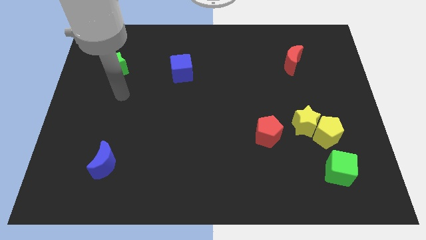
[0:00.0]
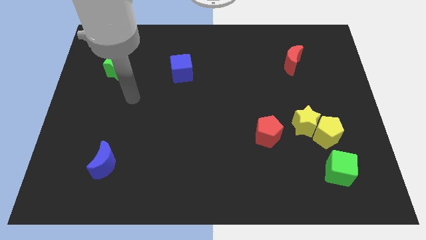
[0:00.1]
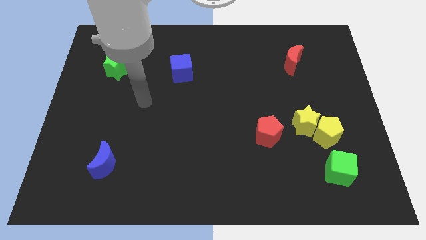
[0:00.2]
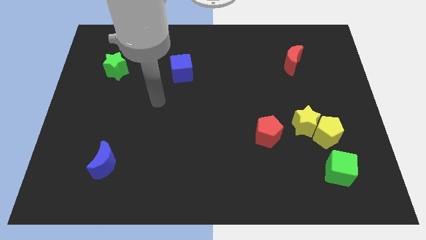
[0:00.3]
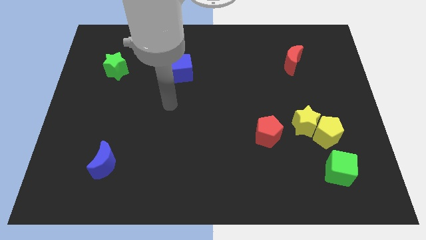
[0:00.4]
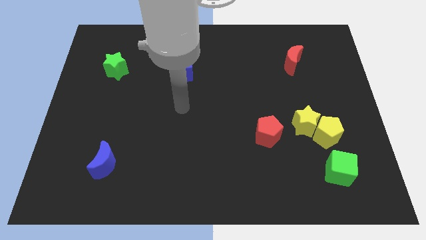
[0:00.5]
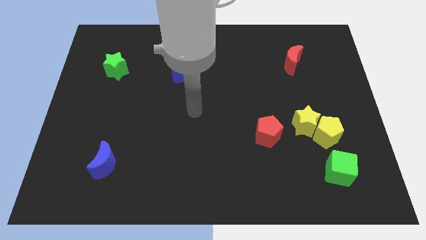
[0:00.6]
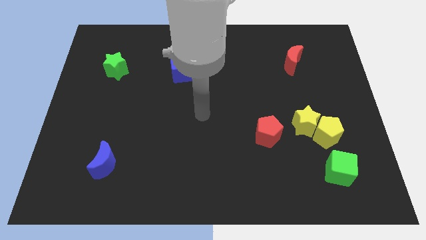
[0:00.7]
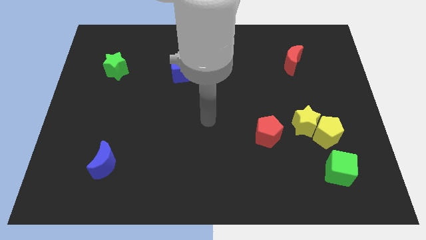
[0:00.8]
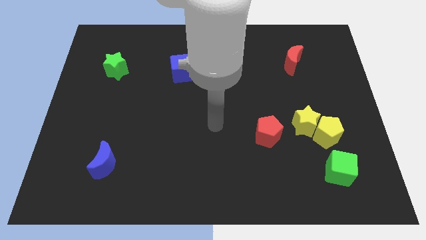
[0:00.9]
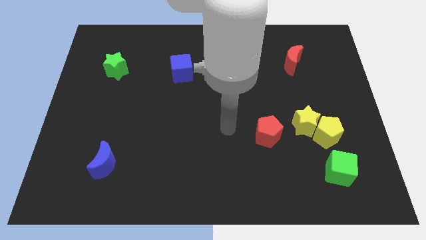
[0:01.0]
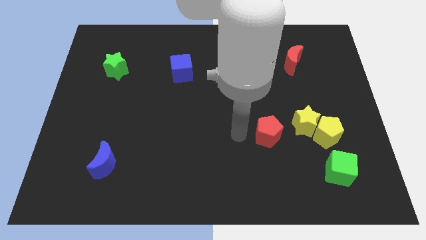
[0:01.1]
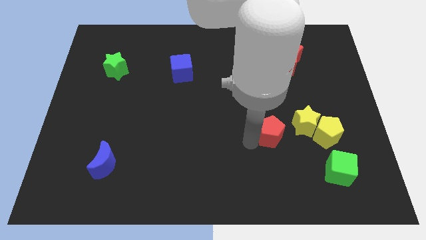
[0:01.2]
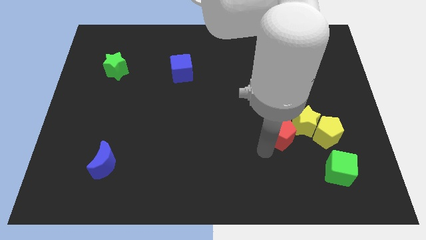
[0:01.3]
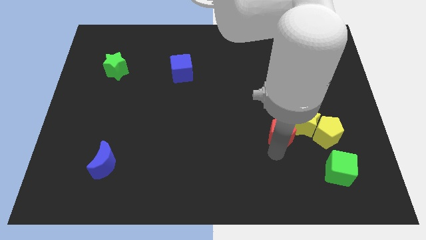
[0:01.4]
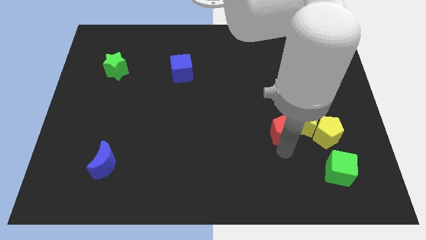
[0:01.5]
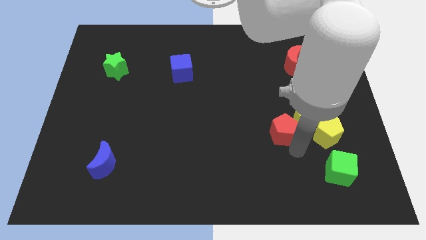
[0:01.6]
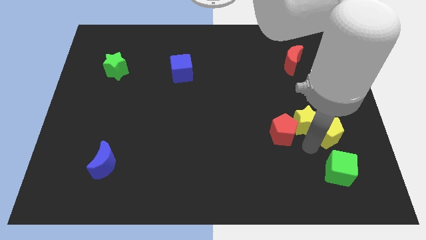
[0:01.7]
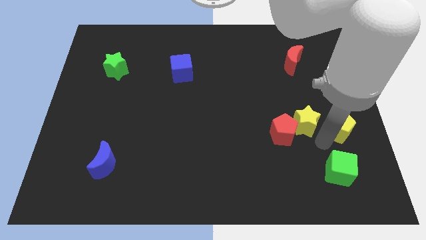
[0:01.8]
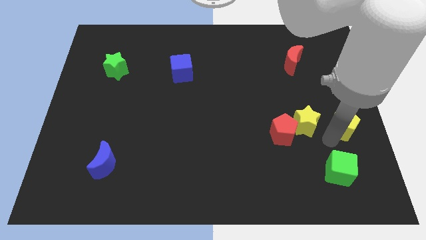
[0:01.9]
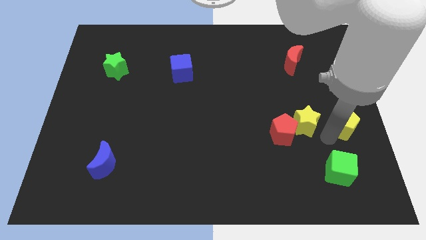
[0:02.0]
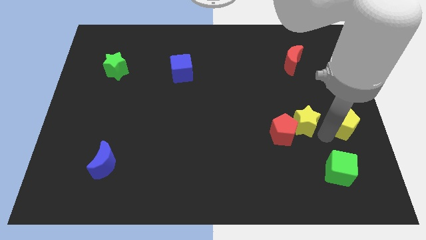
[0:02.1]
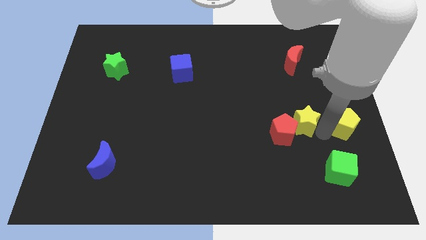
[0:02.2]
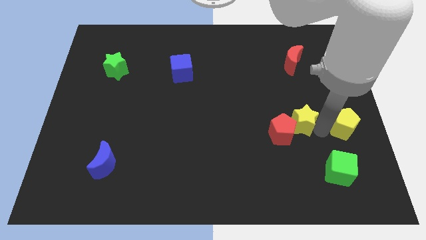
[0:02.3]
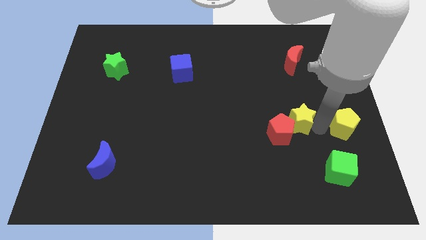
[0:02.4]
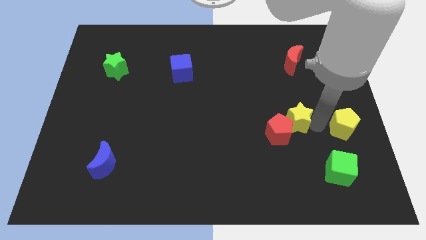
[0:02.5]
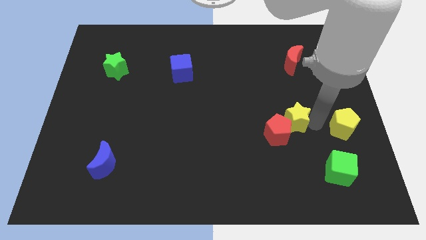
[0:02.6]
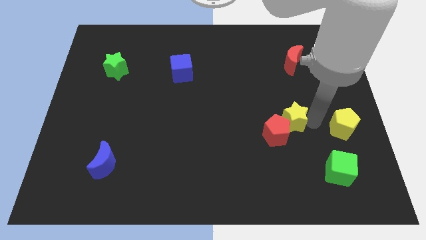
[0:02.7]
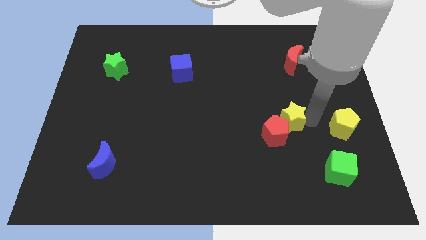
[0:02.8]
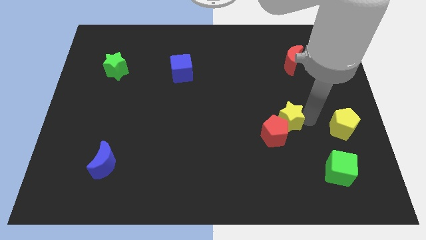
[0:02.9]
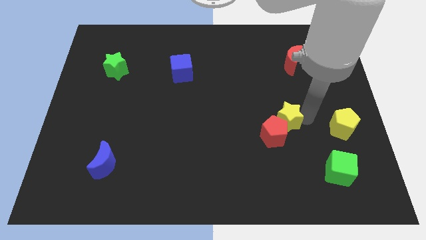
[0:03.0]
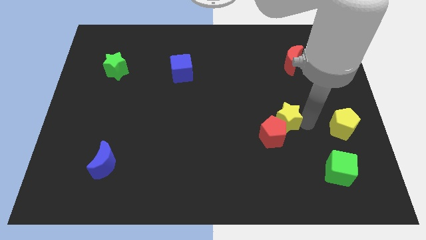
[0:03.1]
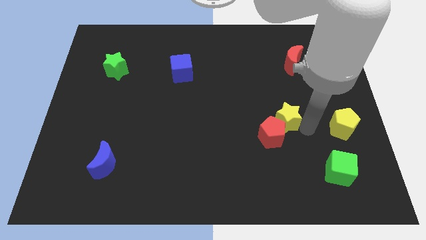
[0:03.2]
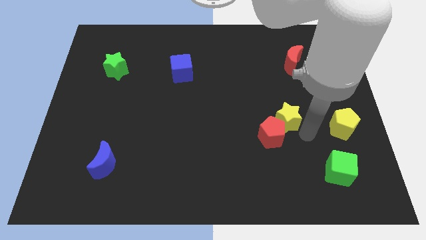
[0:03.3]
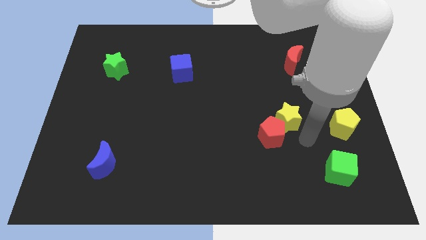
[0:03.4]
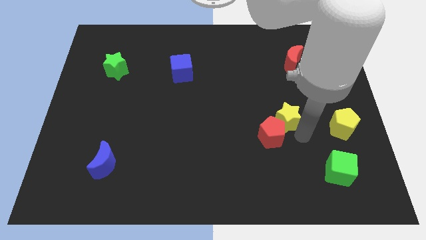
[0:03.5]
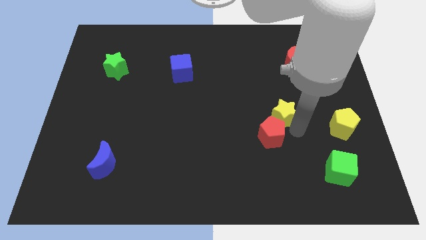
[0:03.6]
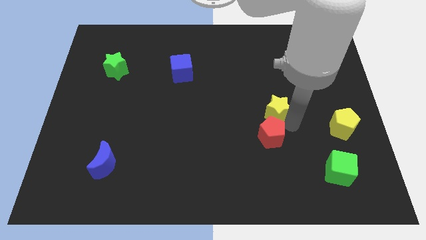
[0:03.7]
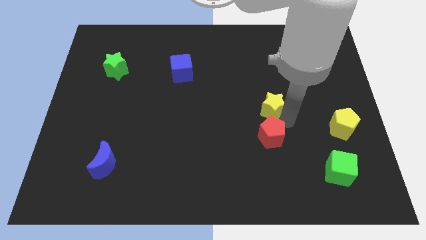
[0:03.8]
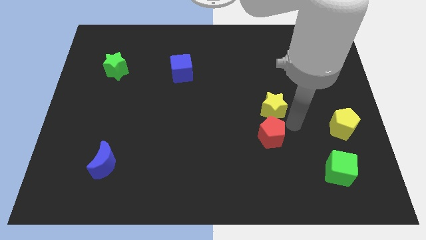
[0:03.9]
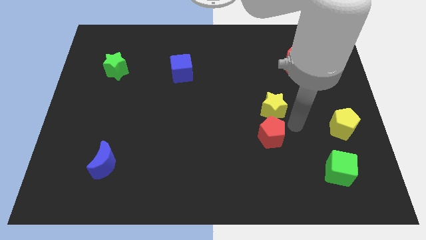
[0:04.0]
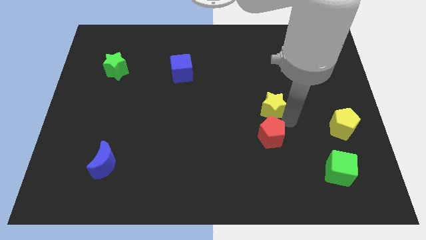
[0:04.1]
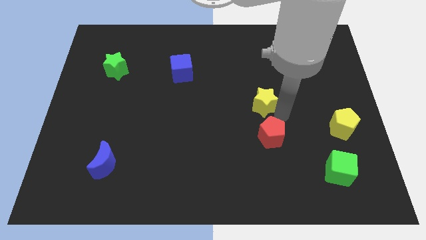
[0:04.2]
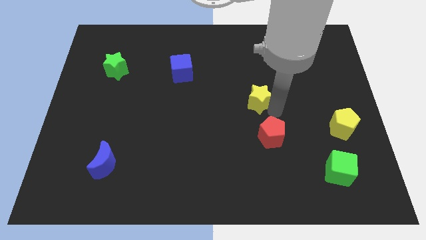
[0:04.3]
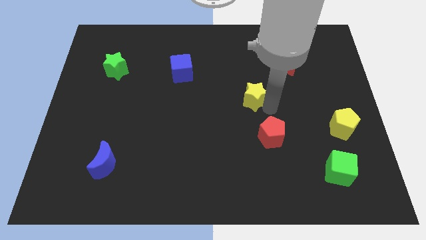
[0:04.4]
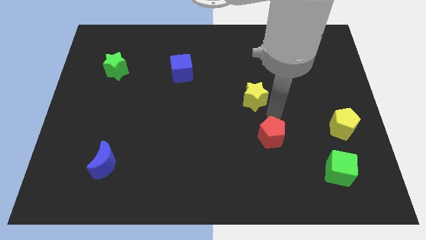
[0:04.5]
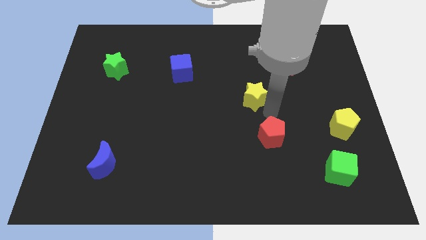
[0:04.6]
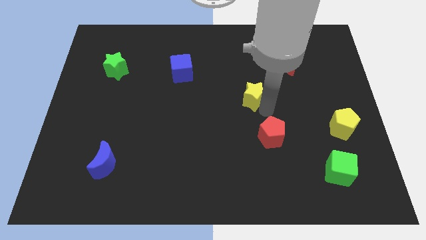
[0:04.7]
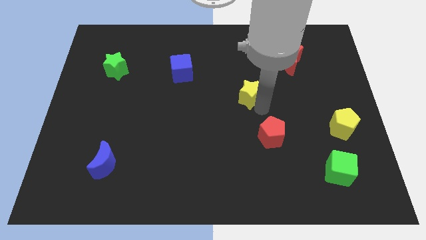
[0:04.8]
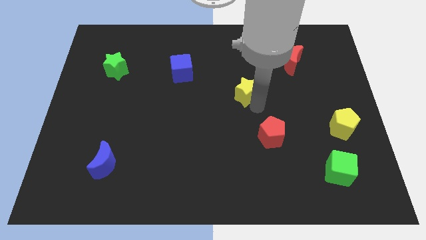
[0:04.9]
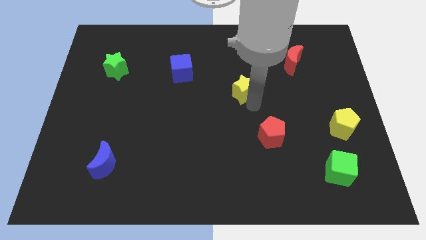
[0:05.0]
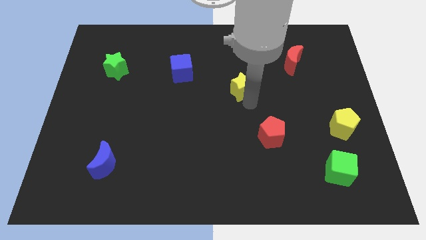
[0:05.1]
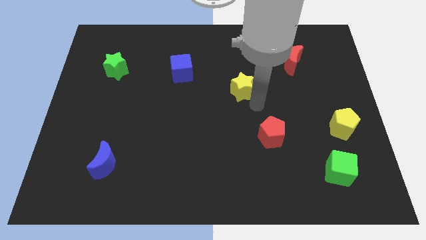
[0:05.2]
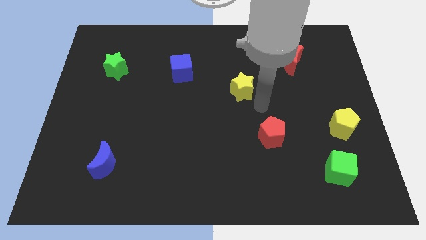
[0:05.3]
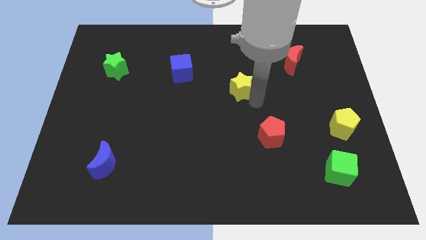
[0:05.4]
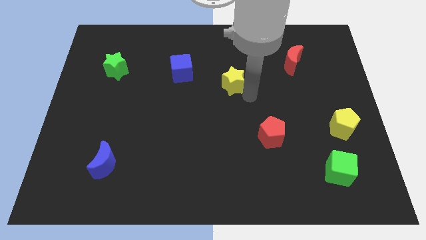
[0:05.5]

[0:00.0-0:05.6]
move the yellow star right of the blue cube

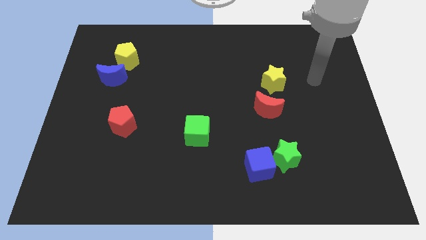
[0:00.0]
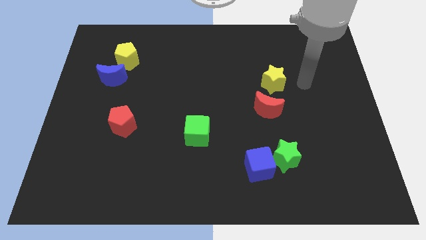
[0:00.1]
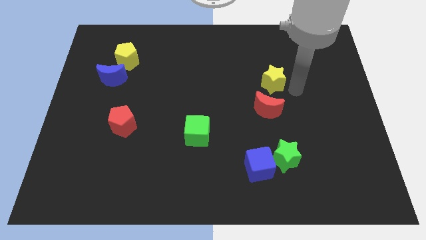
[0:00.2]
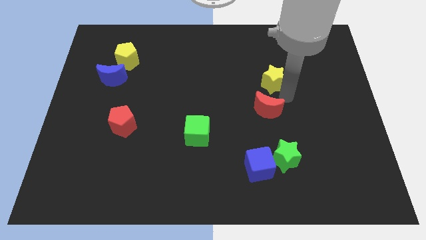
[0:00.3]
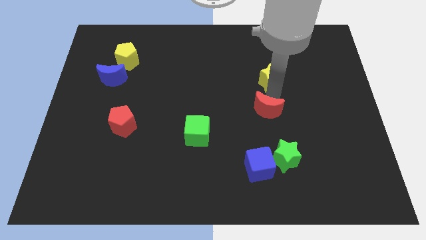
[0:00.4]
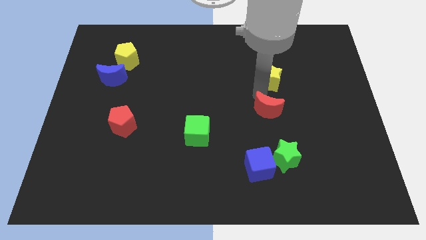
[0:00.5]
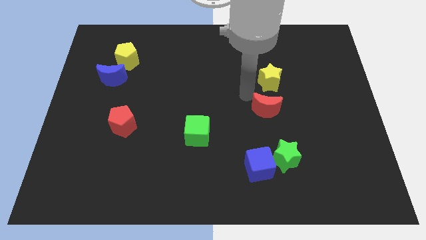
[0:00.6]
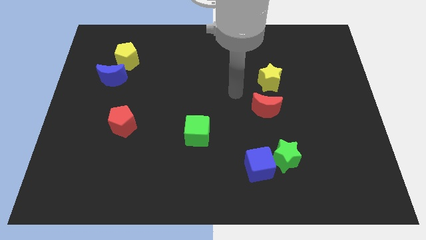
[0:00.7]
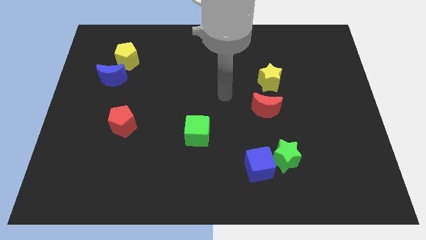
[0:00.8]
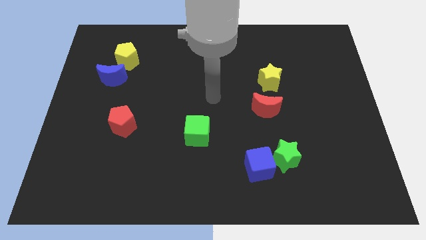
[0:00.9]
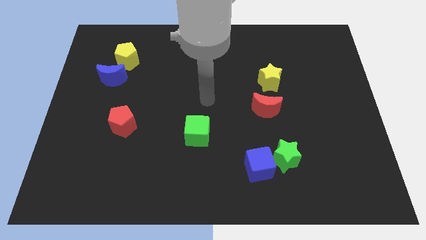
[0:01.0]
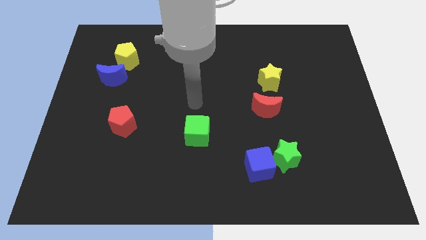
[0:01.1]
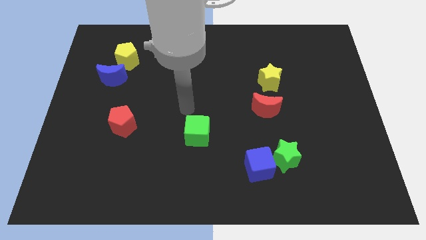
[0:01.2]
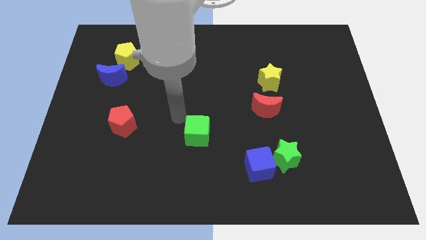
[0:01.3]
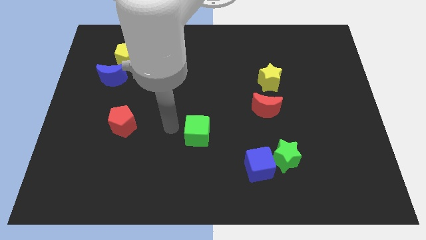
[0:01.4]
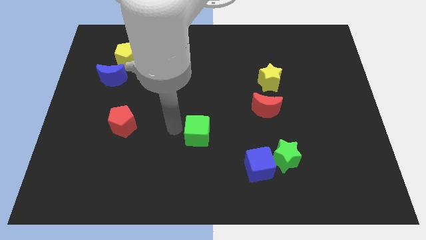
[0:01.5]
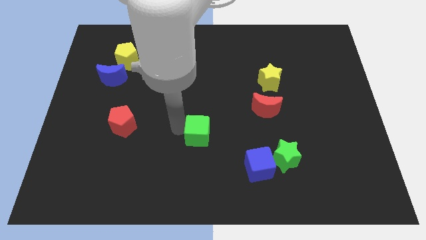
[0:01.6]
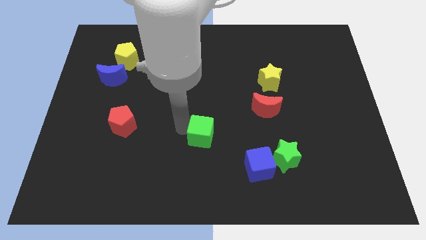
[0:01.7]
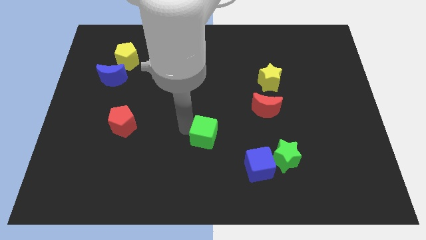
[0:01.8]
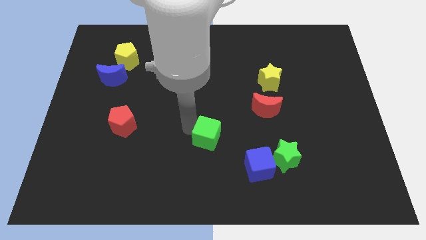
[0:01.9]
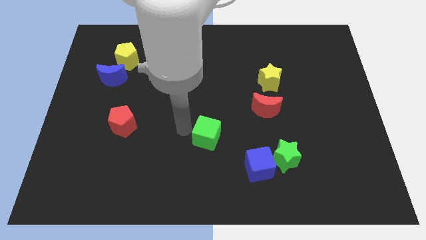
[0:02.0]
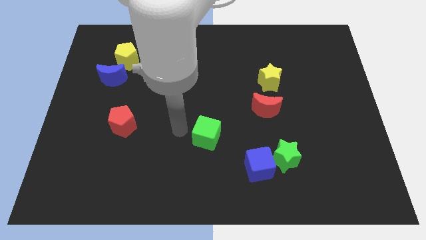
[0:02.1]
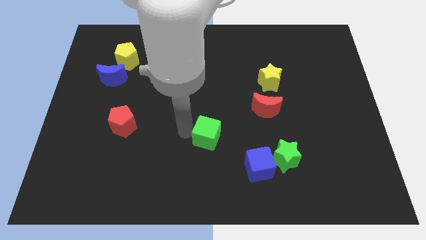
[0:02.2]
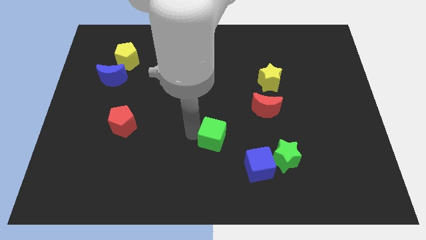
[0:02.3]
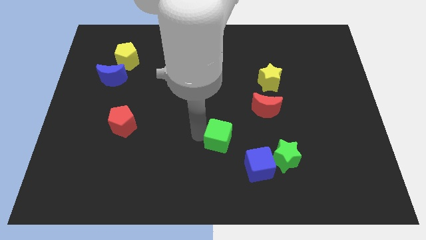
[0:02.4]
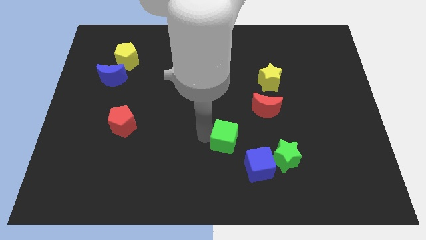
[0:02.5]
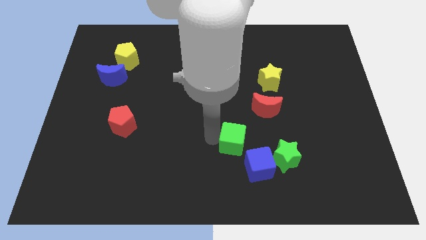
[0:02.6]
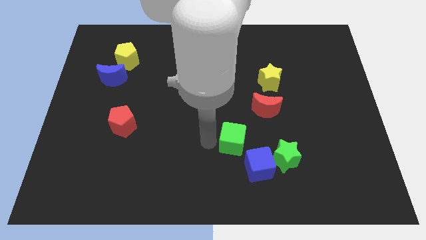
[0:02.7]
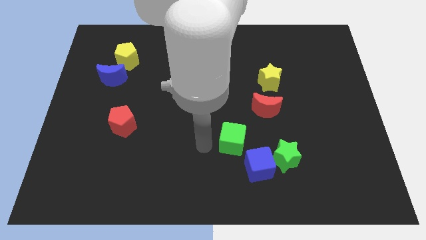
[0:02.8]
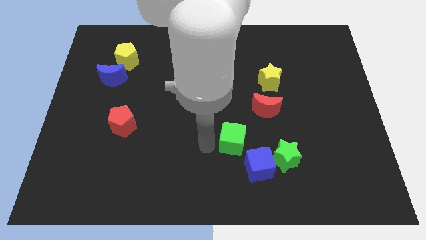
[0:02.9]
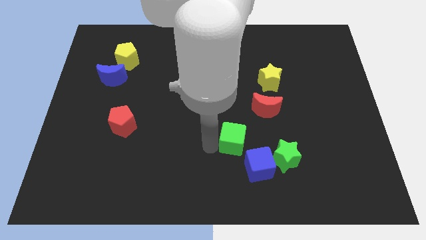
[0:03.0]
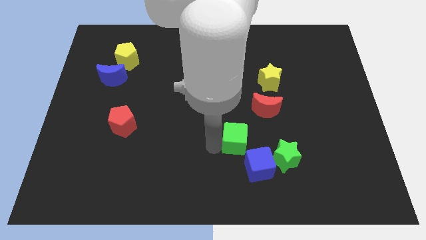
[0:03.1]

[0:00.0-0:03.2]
push the green cube to the top left of the green star
